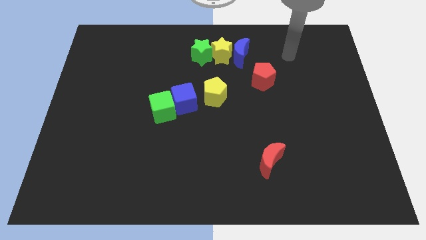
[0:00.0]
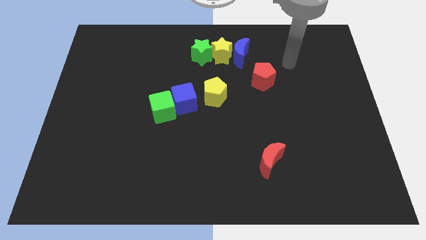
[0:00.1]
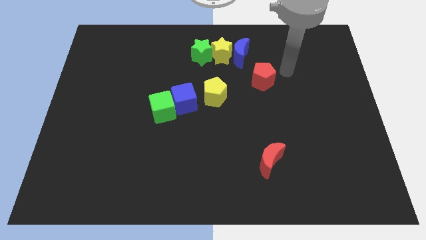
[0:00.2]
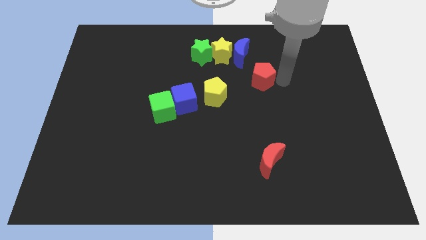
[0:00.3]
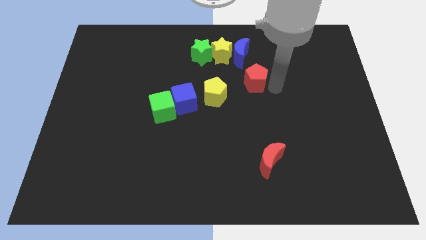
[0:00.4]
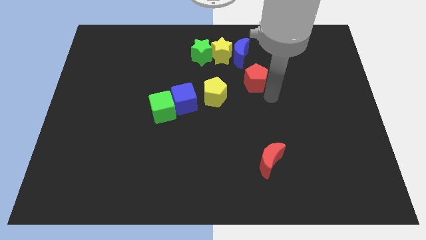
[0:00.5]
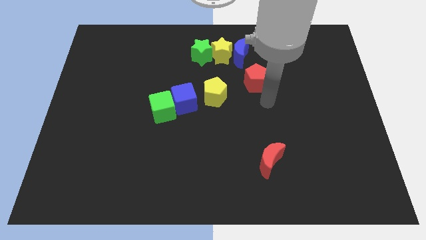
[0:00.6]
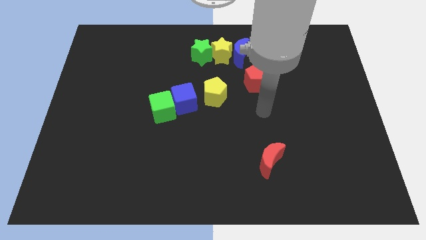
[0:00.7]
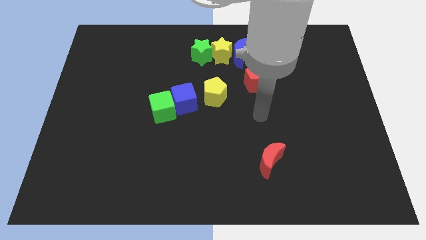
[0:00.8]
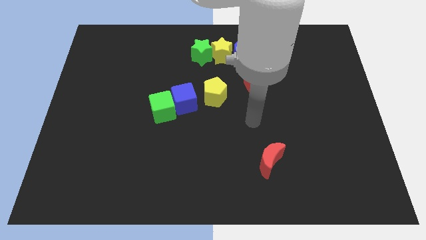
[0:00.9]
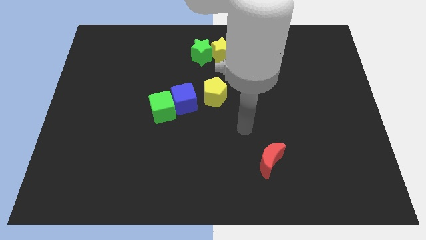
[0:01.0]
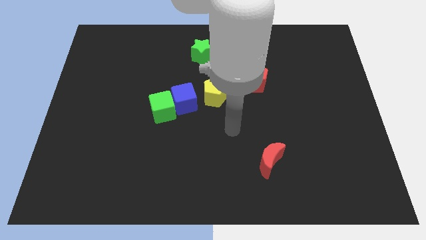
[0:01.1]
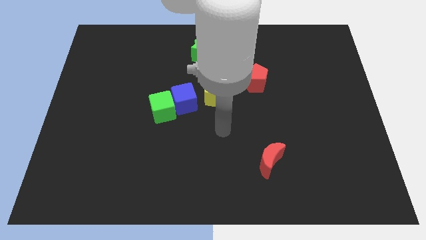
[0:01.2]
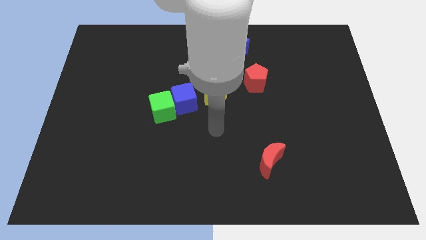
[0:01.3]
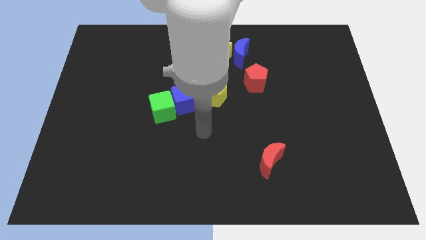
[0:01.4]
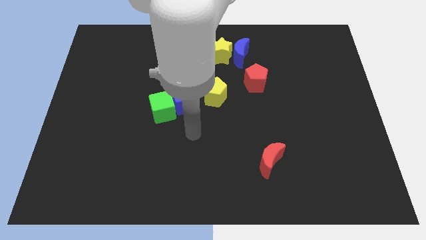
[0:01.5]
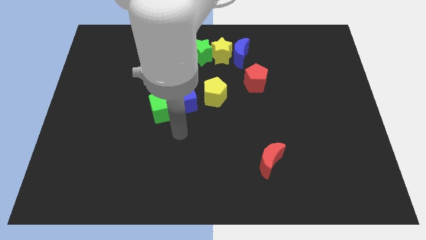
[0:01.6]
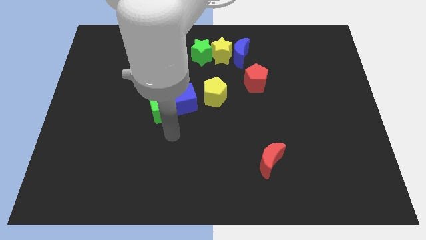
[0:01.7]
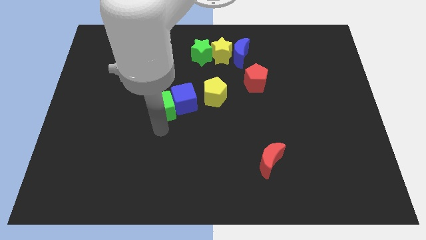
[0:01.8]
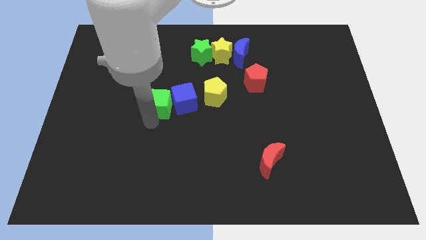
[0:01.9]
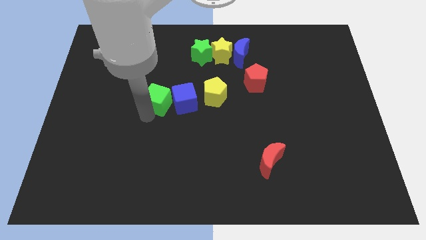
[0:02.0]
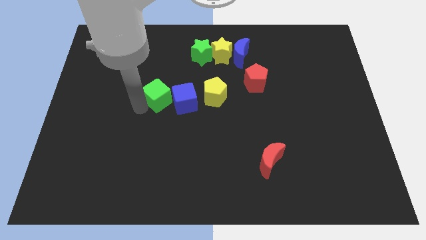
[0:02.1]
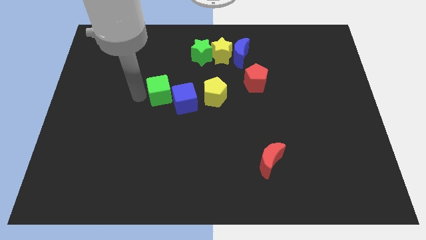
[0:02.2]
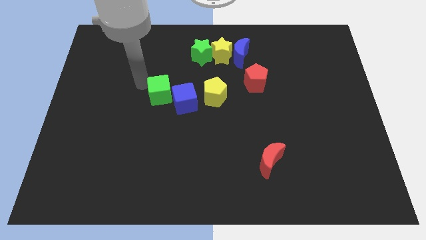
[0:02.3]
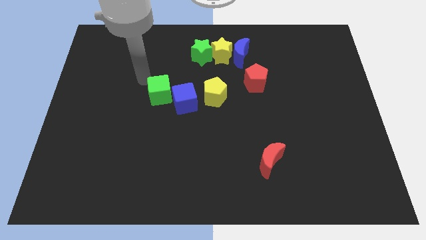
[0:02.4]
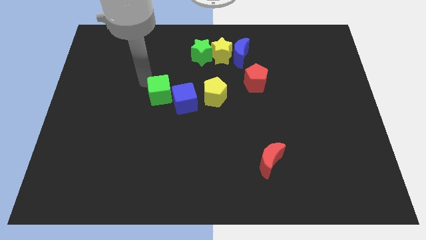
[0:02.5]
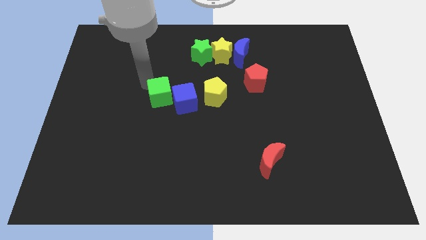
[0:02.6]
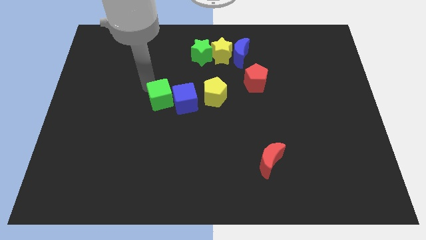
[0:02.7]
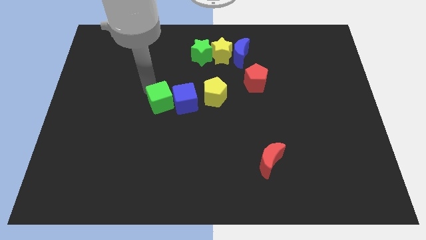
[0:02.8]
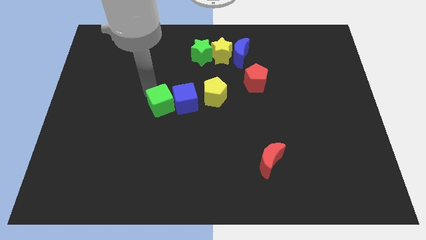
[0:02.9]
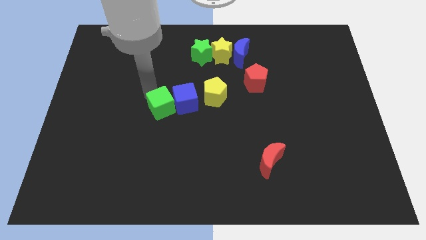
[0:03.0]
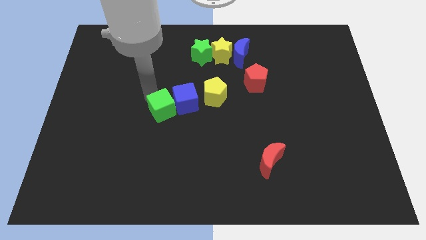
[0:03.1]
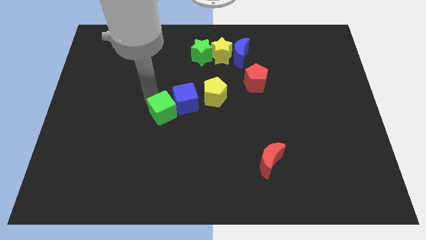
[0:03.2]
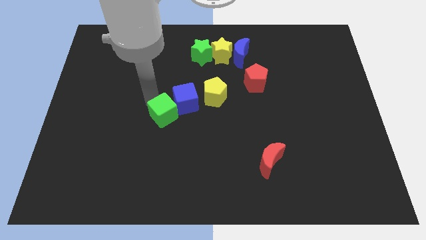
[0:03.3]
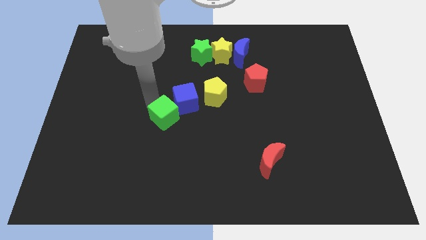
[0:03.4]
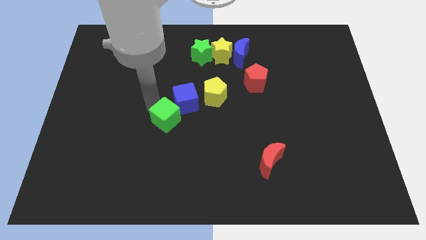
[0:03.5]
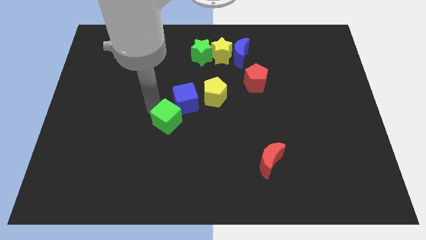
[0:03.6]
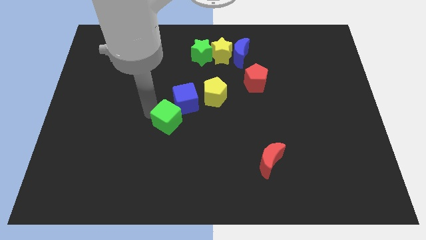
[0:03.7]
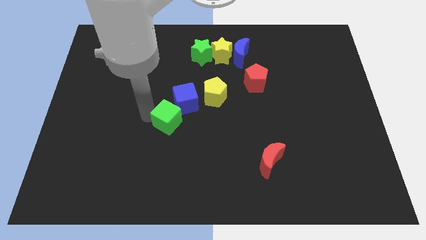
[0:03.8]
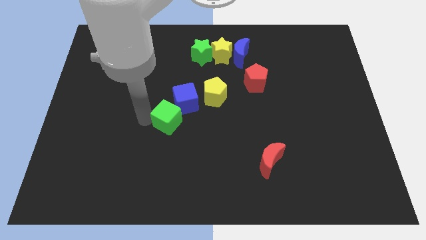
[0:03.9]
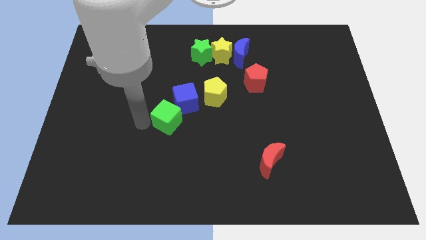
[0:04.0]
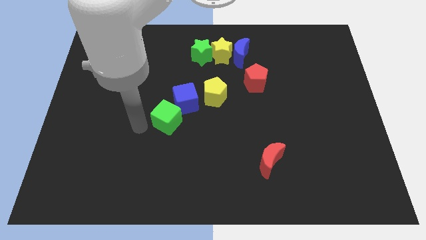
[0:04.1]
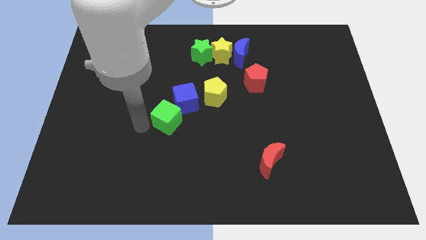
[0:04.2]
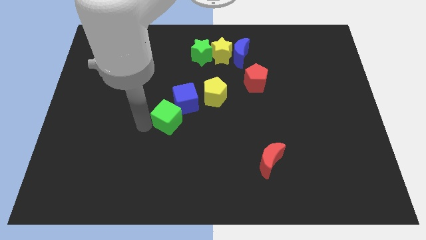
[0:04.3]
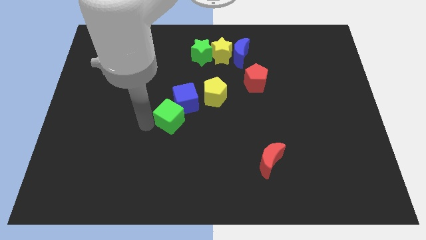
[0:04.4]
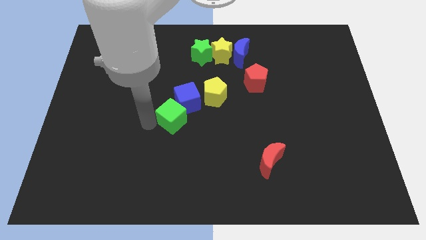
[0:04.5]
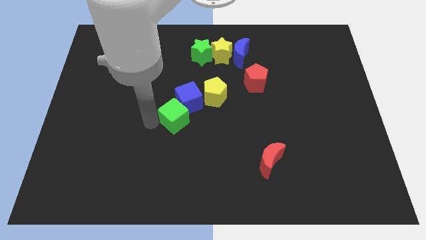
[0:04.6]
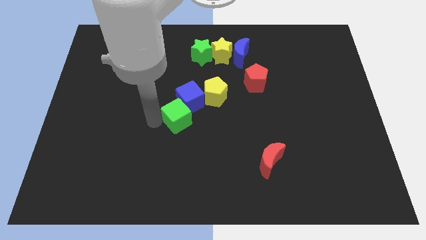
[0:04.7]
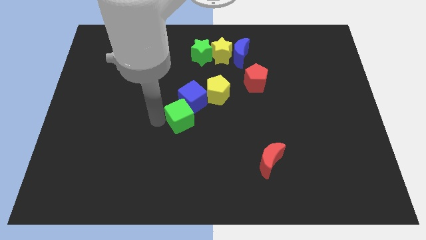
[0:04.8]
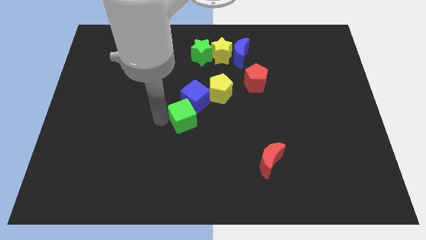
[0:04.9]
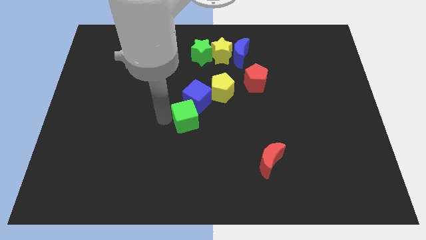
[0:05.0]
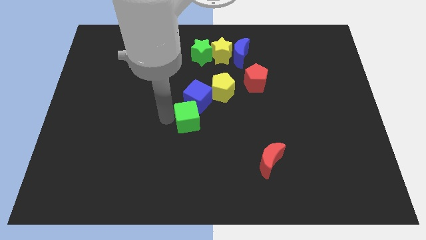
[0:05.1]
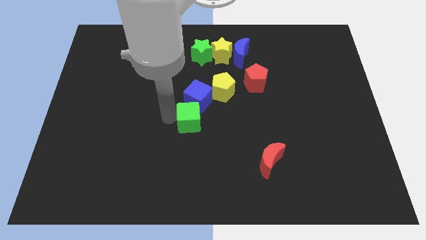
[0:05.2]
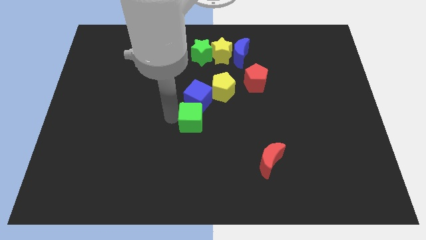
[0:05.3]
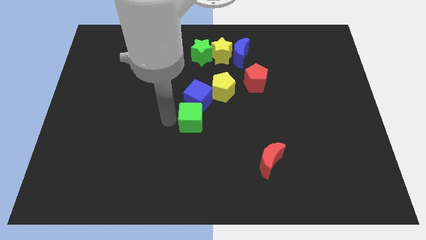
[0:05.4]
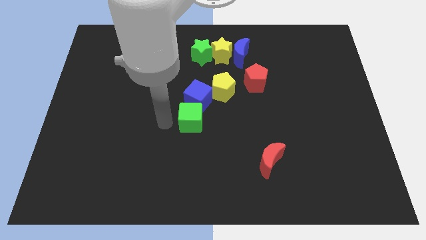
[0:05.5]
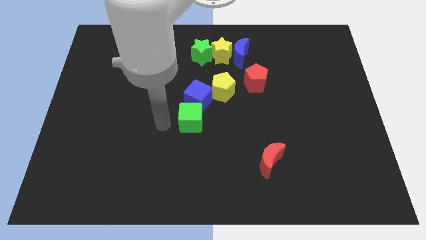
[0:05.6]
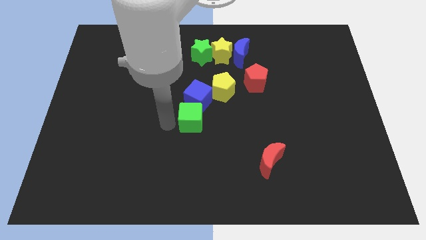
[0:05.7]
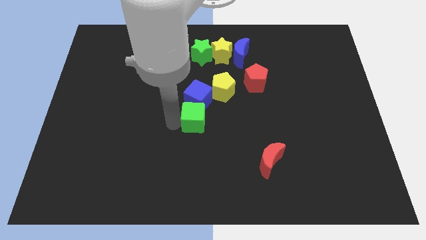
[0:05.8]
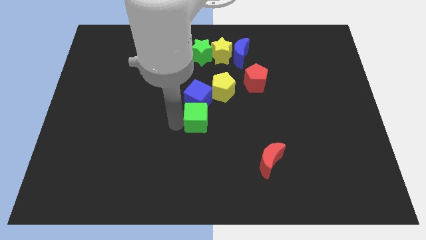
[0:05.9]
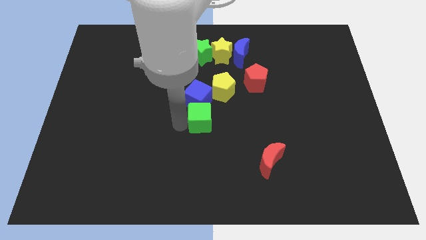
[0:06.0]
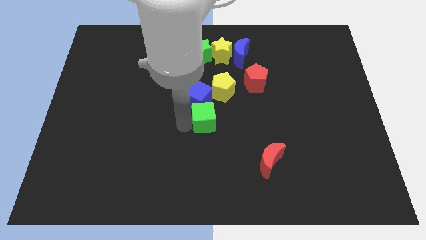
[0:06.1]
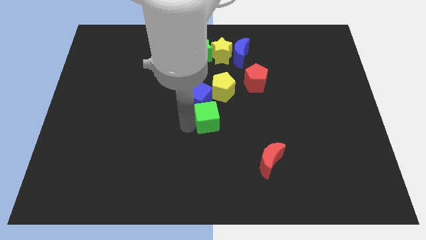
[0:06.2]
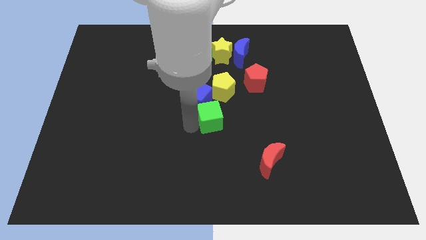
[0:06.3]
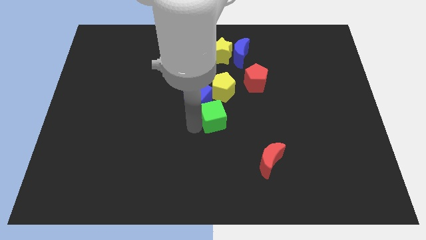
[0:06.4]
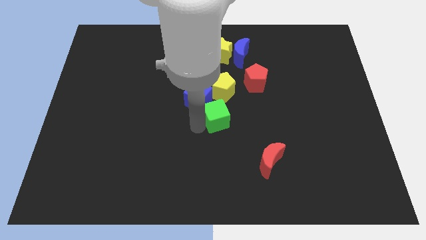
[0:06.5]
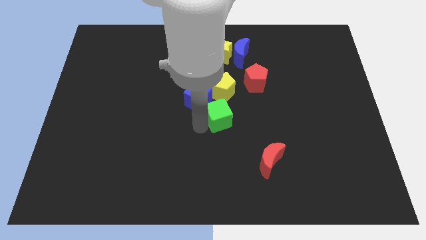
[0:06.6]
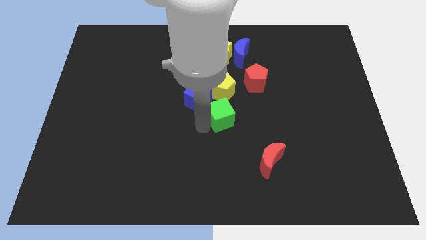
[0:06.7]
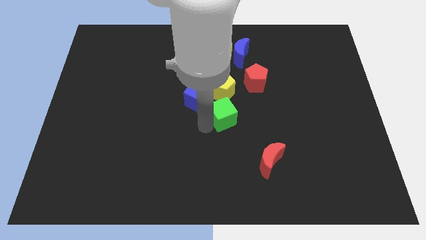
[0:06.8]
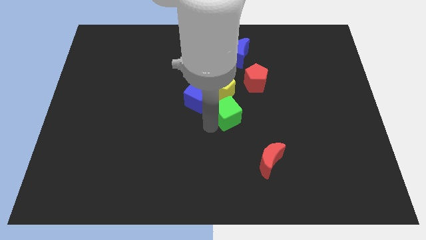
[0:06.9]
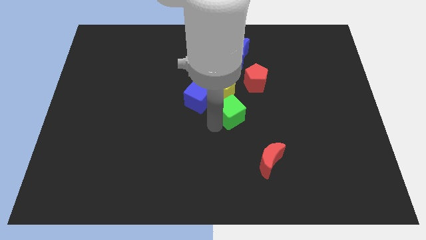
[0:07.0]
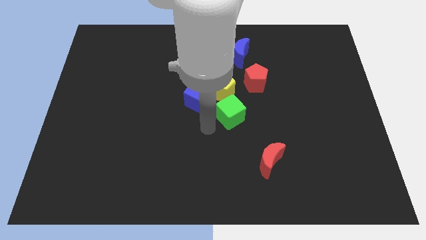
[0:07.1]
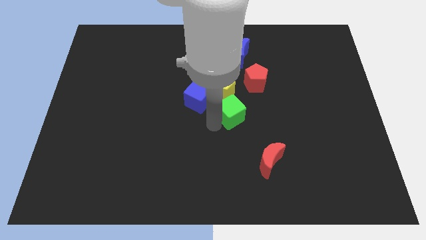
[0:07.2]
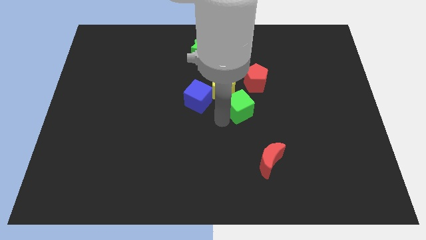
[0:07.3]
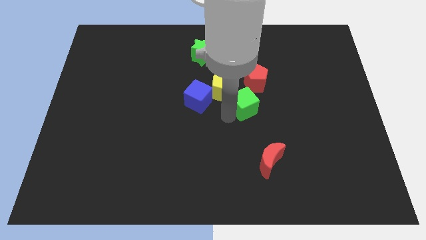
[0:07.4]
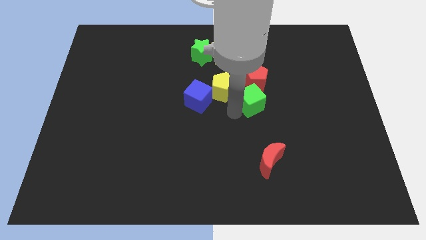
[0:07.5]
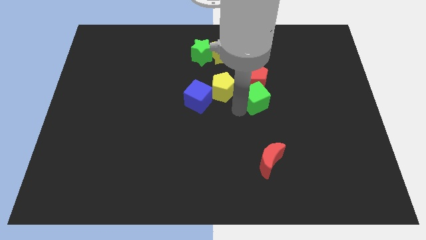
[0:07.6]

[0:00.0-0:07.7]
move the green cube diagonally down and to the right of the red pentagon
